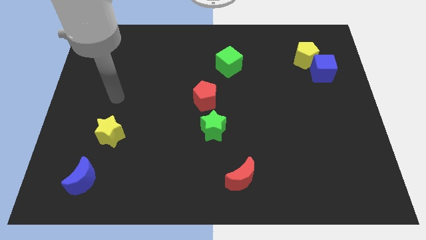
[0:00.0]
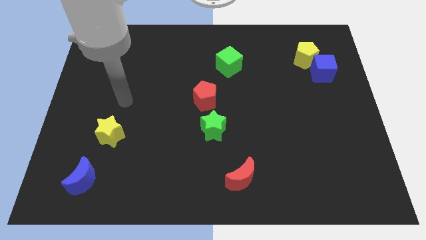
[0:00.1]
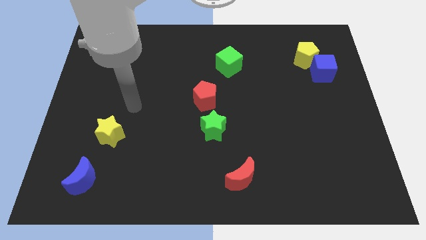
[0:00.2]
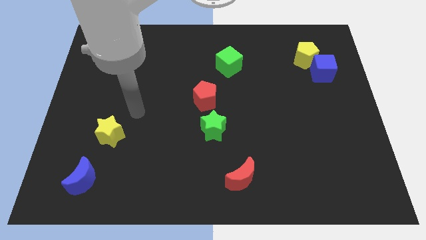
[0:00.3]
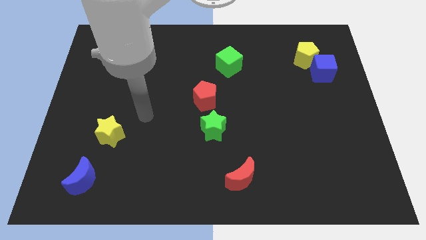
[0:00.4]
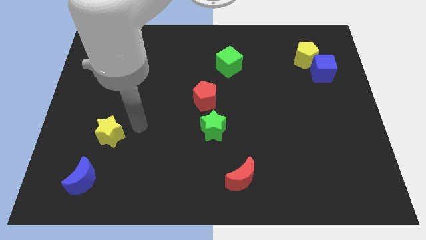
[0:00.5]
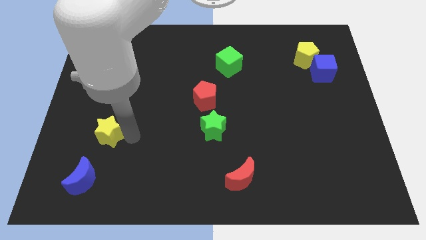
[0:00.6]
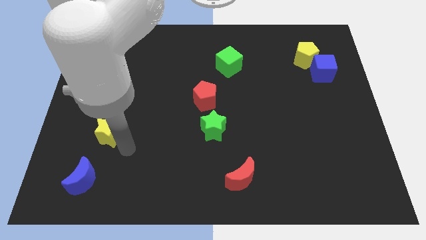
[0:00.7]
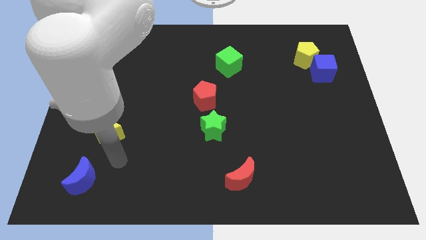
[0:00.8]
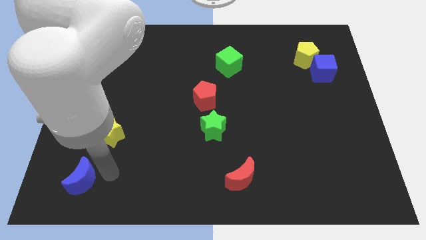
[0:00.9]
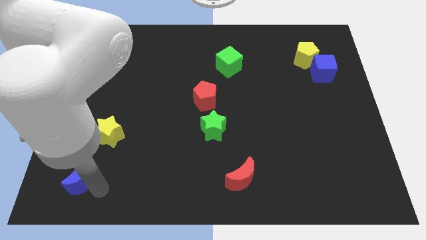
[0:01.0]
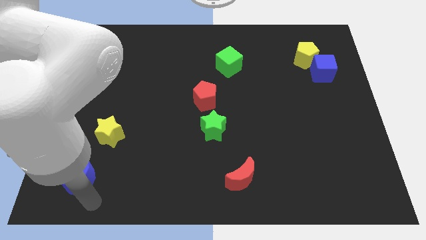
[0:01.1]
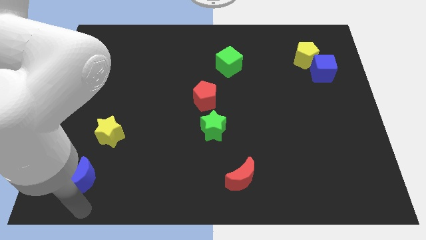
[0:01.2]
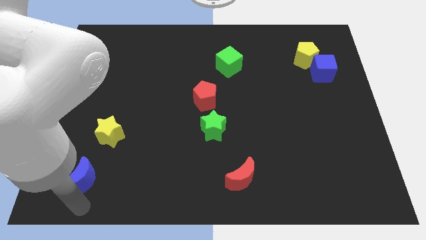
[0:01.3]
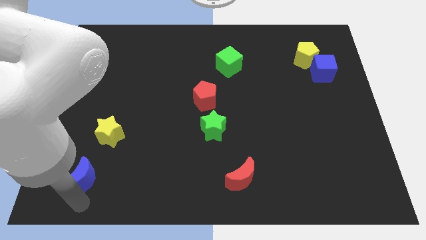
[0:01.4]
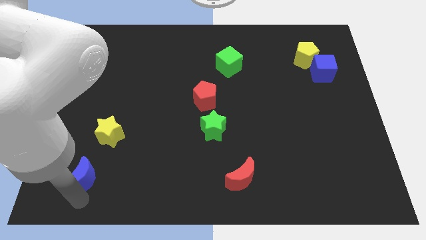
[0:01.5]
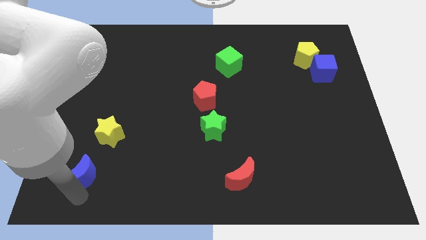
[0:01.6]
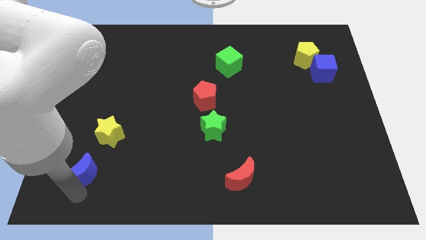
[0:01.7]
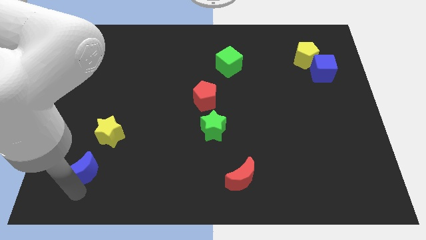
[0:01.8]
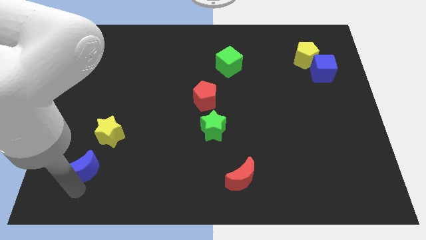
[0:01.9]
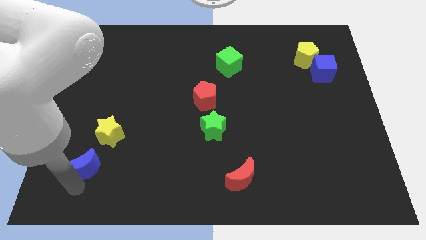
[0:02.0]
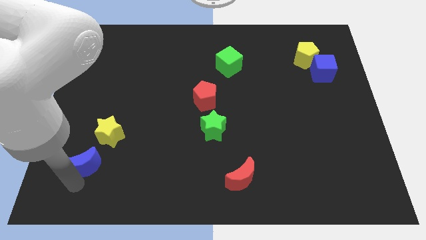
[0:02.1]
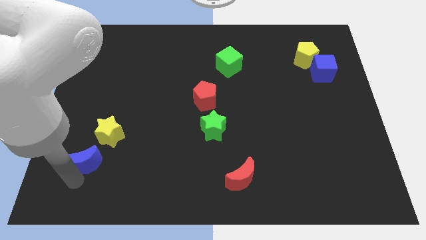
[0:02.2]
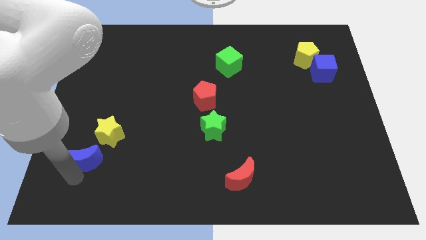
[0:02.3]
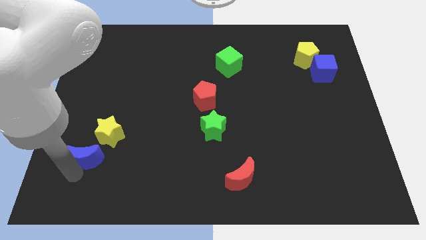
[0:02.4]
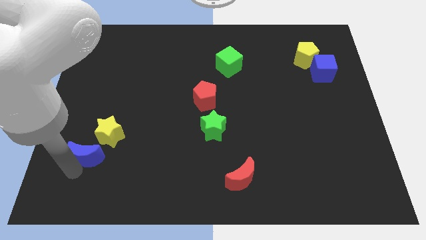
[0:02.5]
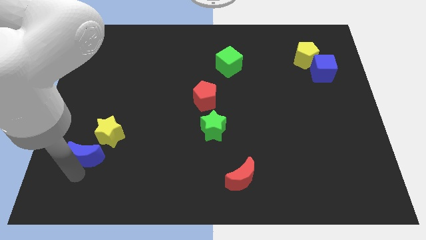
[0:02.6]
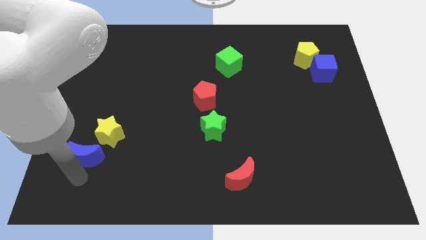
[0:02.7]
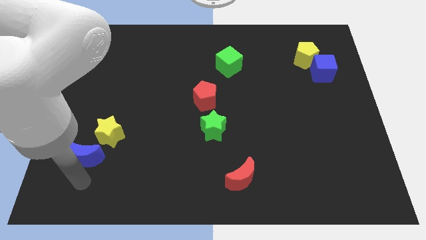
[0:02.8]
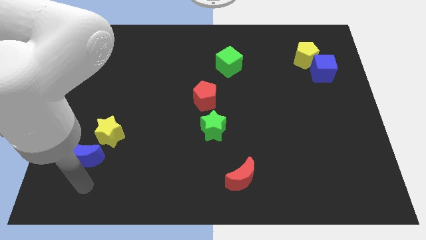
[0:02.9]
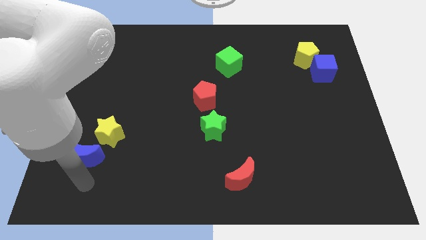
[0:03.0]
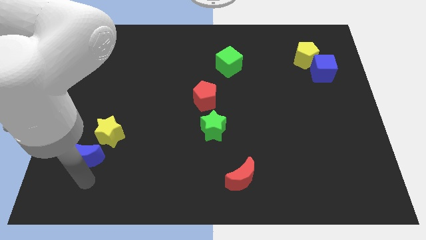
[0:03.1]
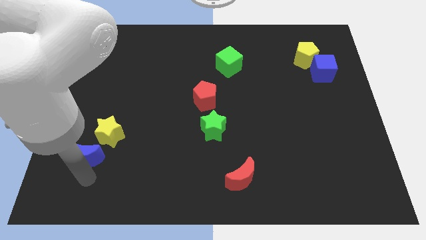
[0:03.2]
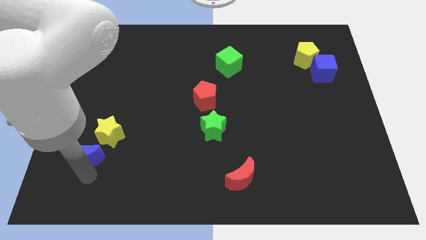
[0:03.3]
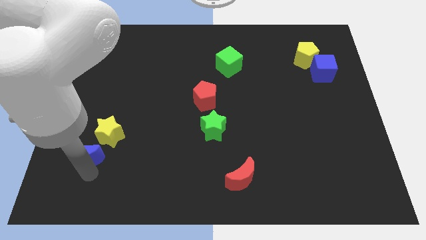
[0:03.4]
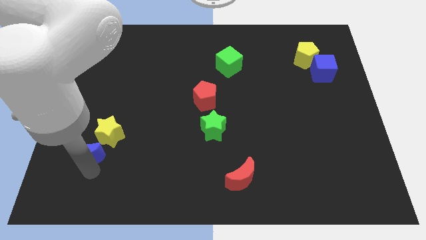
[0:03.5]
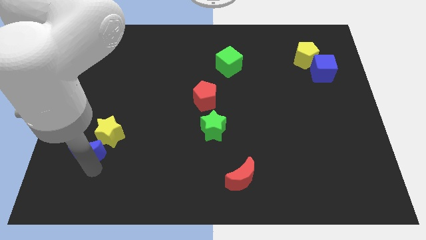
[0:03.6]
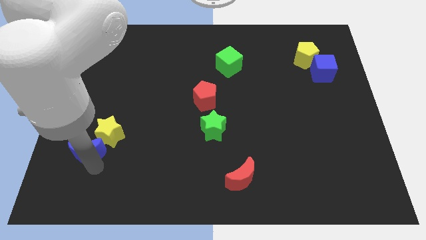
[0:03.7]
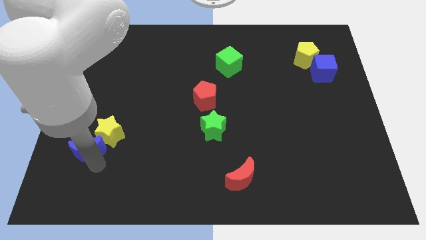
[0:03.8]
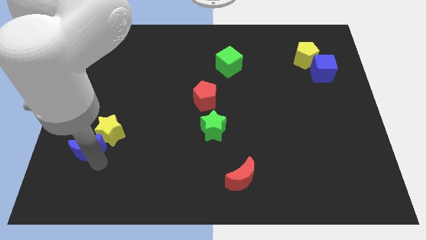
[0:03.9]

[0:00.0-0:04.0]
push the blue moon up a little bit

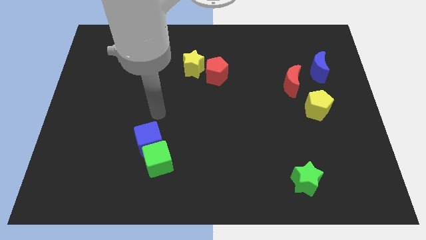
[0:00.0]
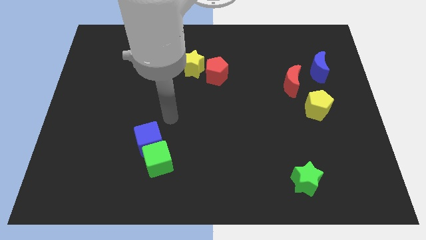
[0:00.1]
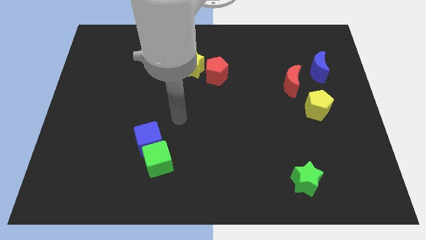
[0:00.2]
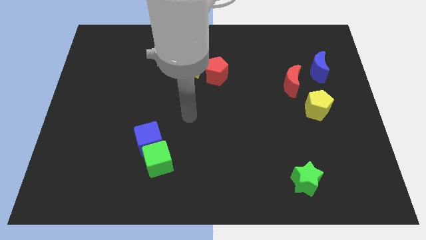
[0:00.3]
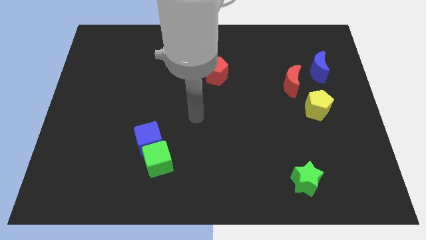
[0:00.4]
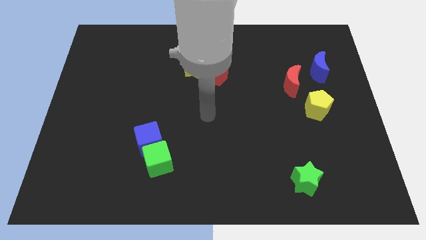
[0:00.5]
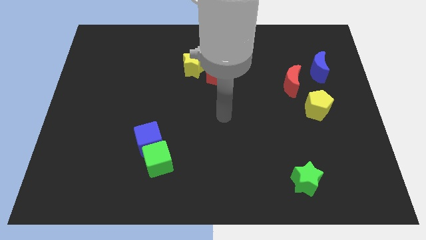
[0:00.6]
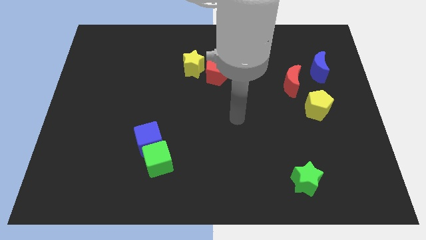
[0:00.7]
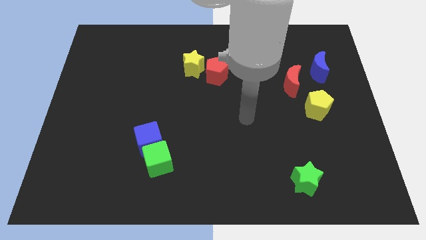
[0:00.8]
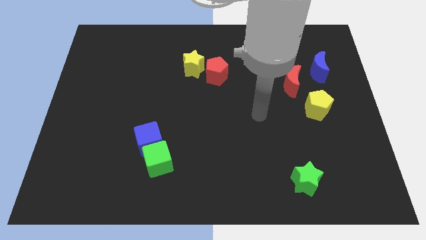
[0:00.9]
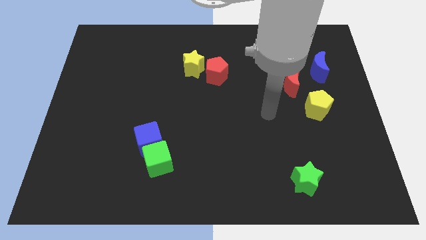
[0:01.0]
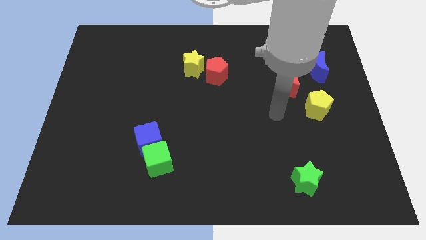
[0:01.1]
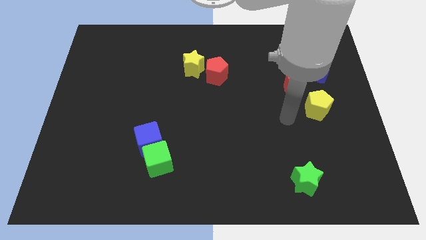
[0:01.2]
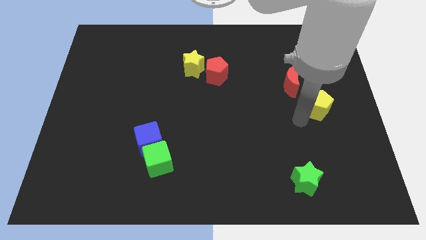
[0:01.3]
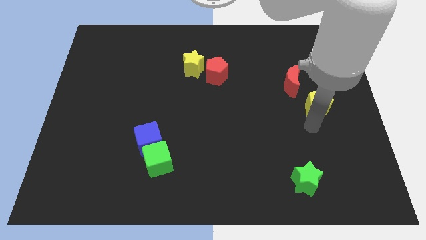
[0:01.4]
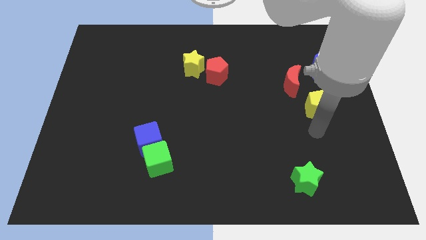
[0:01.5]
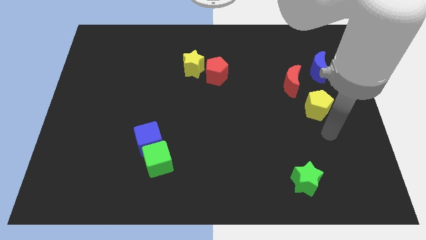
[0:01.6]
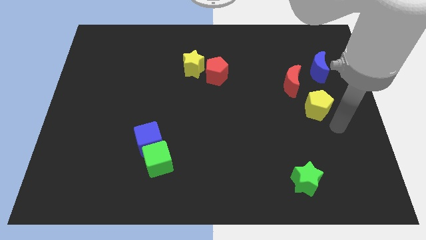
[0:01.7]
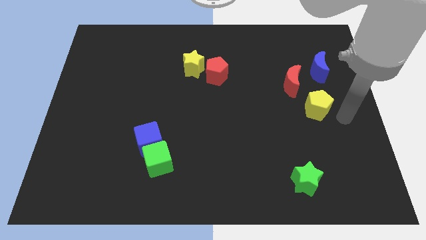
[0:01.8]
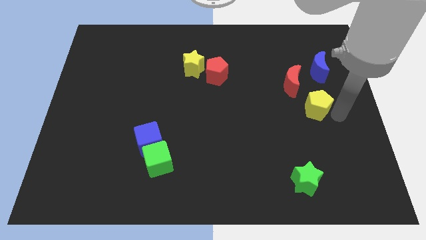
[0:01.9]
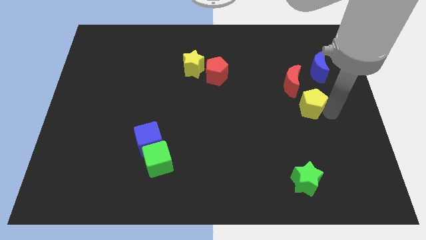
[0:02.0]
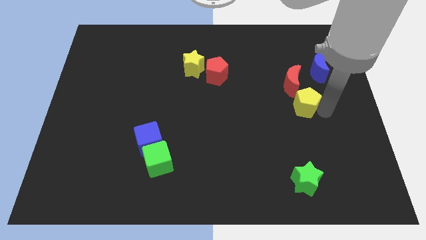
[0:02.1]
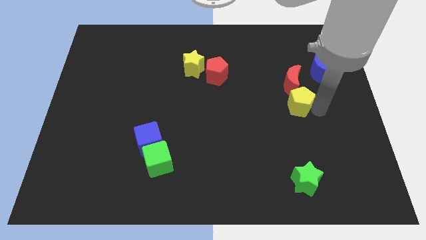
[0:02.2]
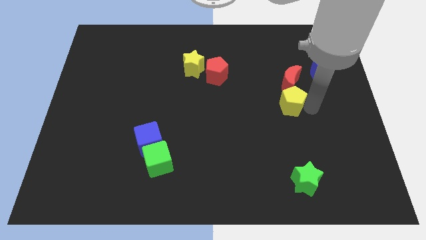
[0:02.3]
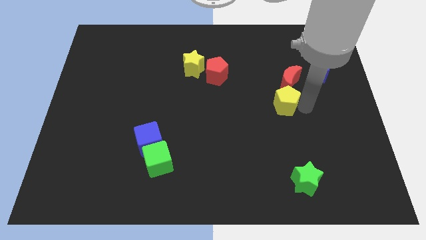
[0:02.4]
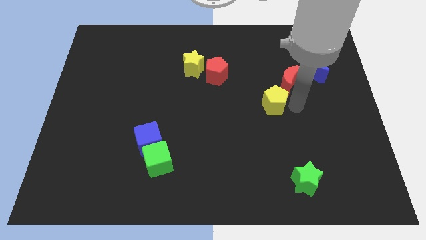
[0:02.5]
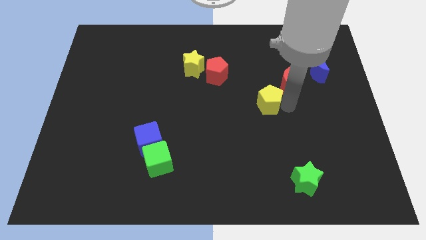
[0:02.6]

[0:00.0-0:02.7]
slightly push the yellow pentagon diagonally up and to the left

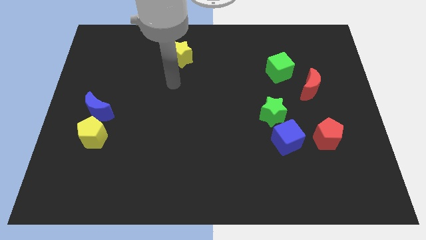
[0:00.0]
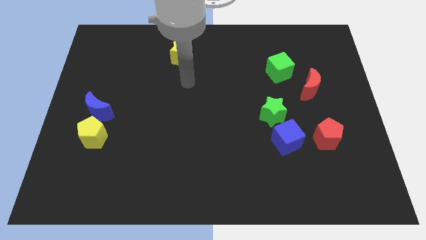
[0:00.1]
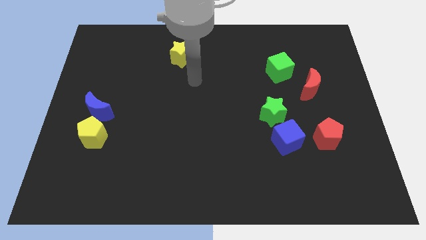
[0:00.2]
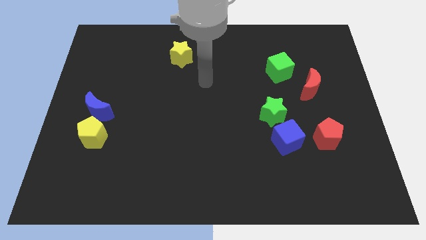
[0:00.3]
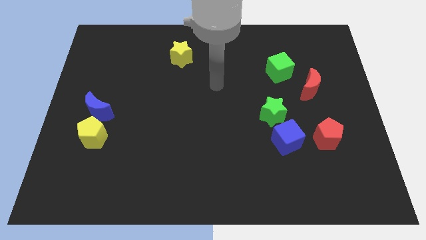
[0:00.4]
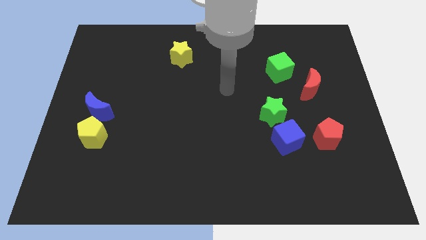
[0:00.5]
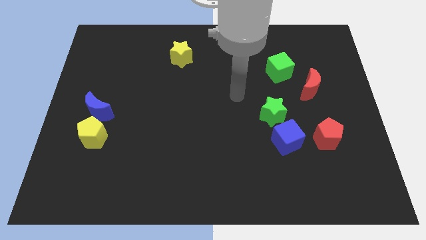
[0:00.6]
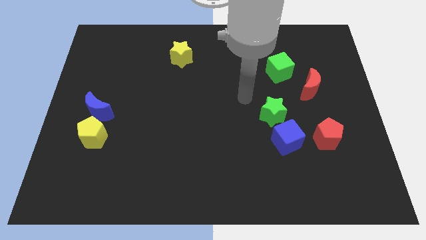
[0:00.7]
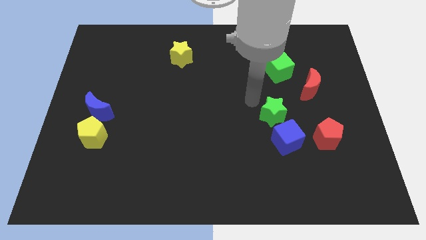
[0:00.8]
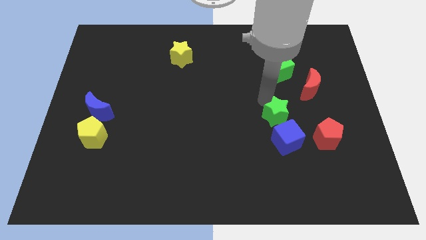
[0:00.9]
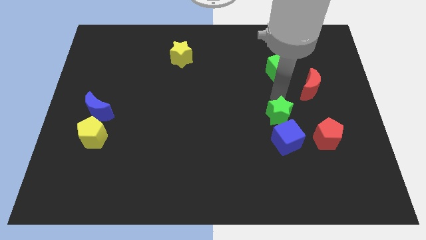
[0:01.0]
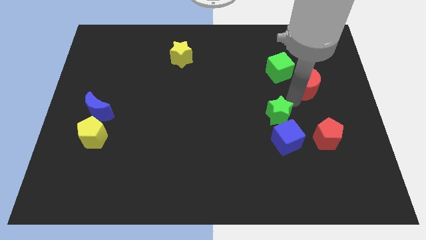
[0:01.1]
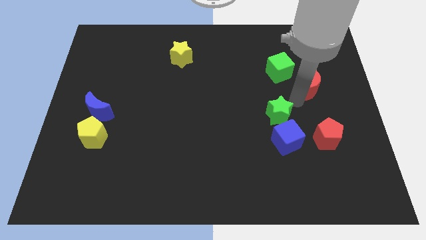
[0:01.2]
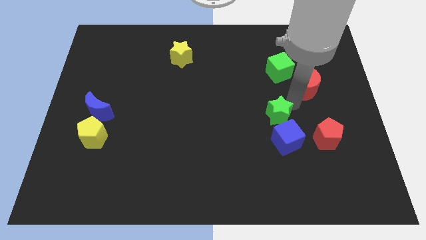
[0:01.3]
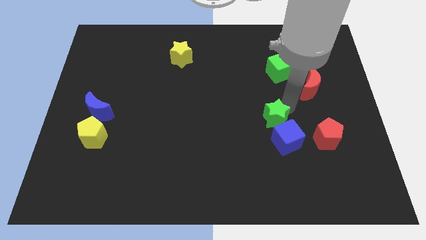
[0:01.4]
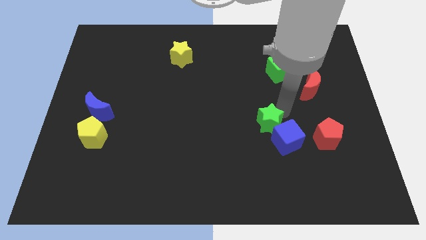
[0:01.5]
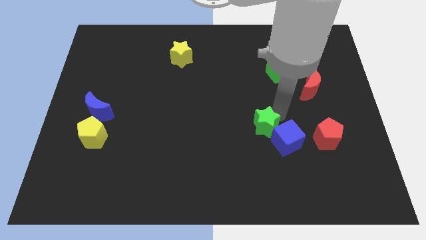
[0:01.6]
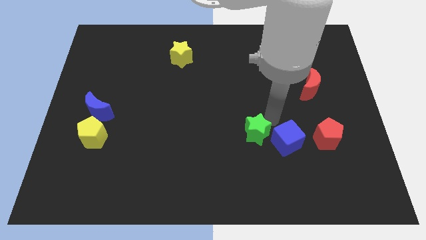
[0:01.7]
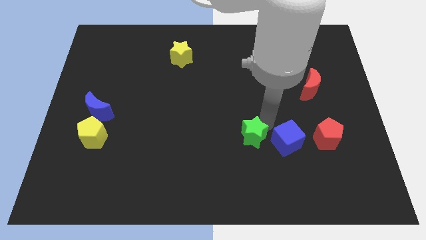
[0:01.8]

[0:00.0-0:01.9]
slightly push the green star down and then left
